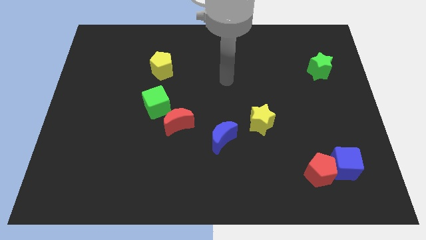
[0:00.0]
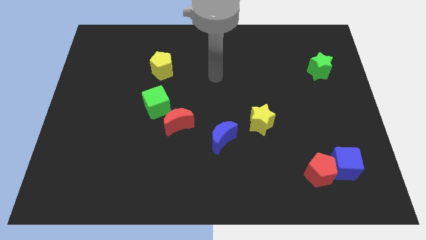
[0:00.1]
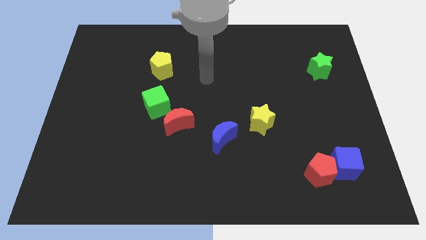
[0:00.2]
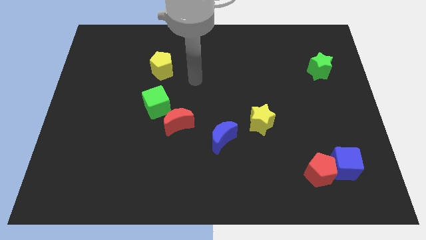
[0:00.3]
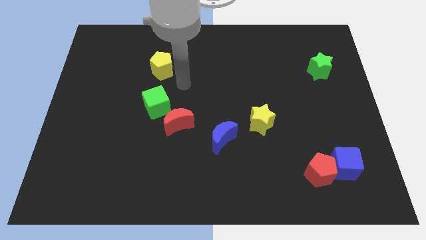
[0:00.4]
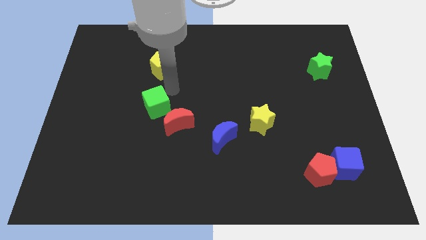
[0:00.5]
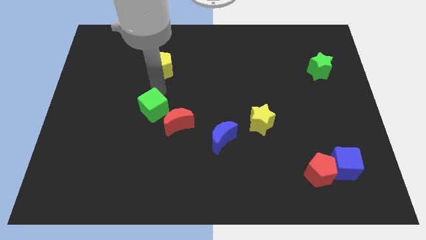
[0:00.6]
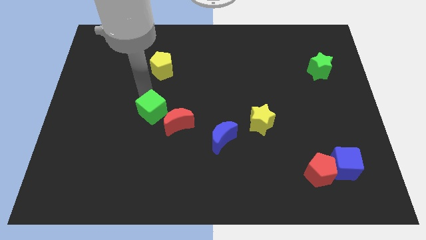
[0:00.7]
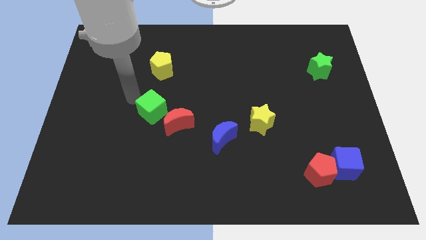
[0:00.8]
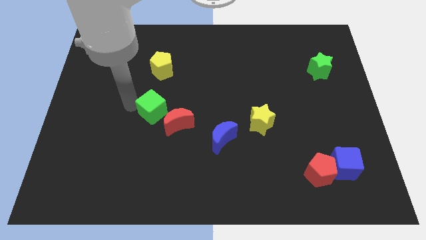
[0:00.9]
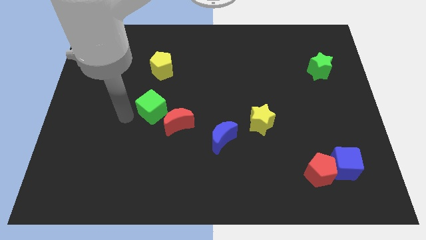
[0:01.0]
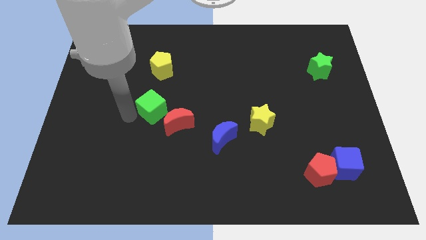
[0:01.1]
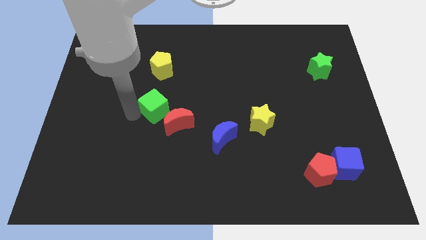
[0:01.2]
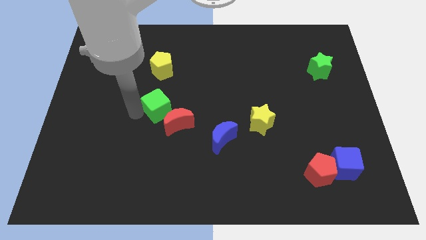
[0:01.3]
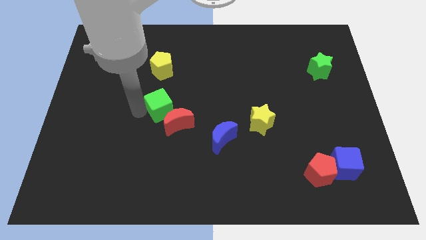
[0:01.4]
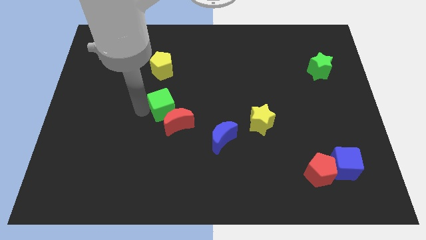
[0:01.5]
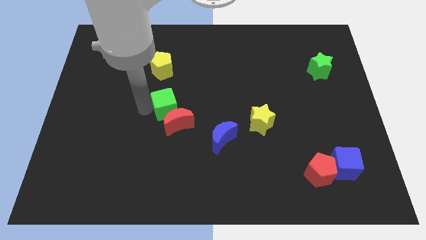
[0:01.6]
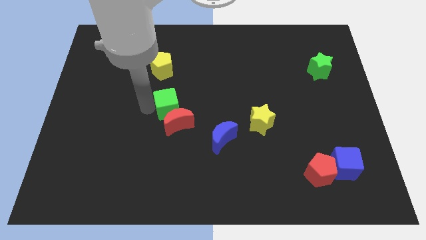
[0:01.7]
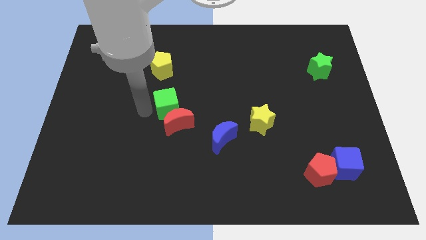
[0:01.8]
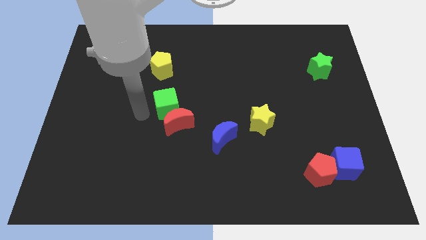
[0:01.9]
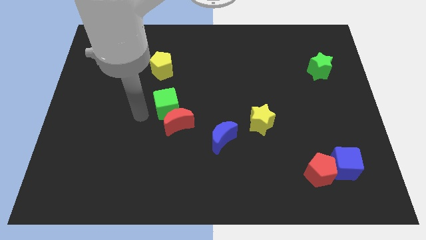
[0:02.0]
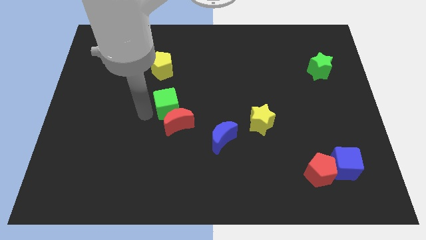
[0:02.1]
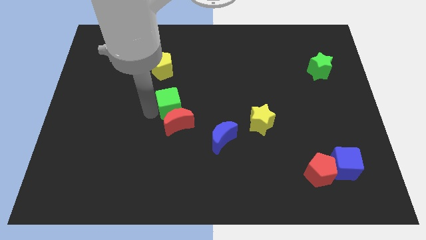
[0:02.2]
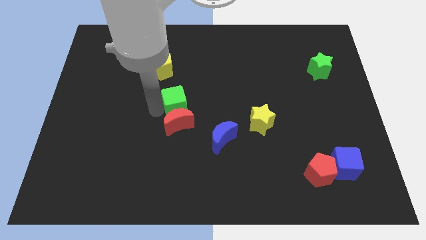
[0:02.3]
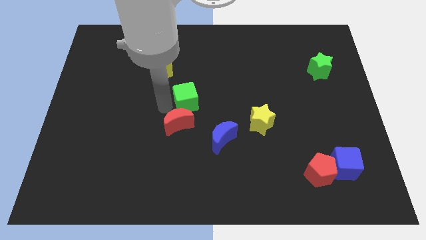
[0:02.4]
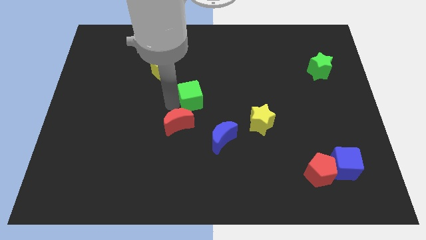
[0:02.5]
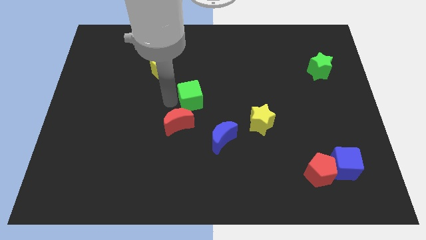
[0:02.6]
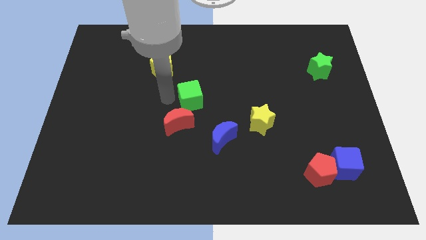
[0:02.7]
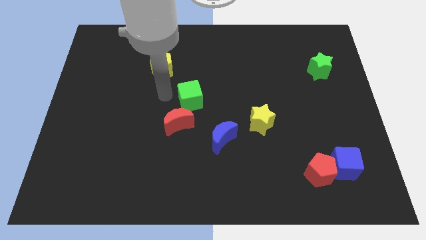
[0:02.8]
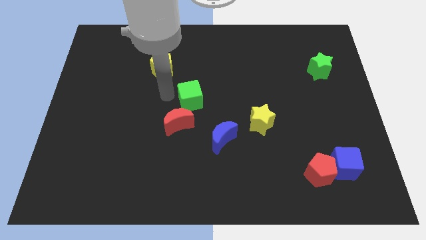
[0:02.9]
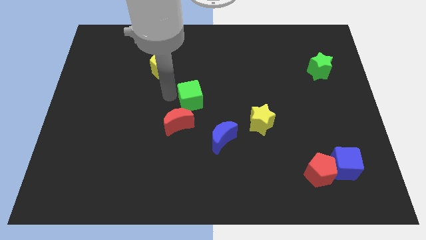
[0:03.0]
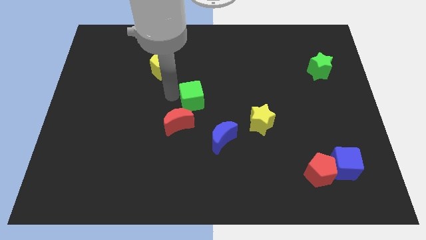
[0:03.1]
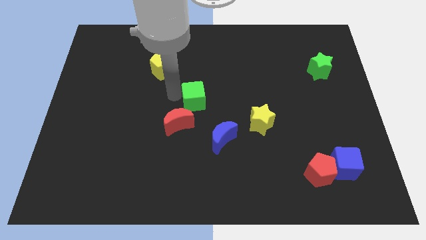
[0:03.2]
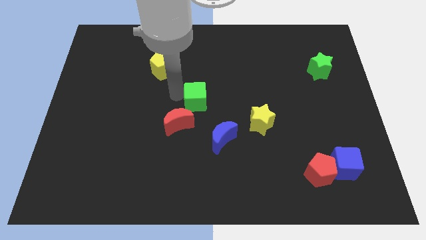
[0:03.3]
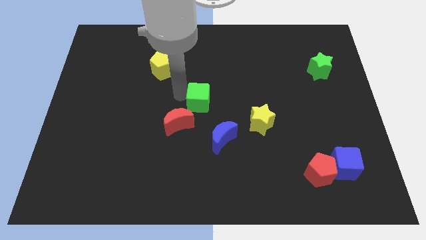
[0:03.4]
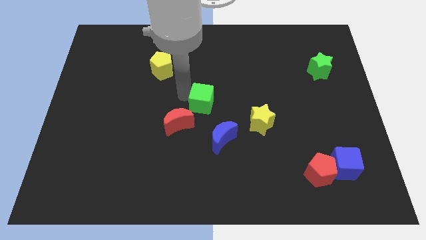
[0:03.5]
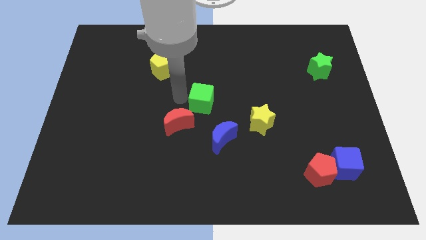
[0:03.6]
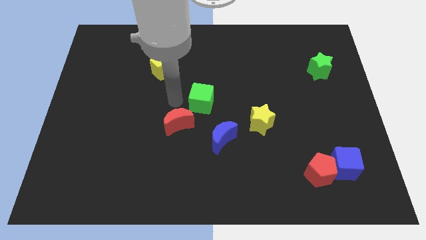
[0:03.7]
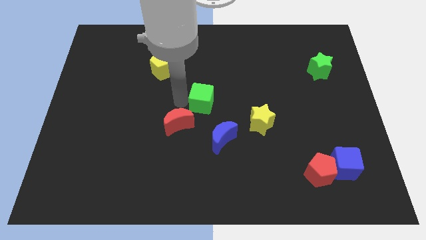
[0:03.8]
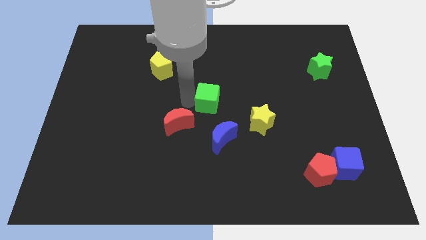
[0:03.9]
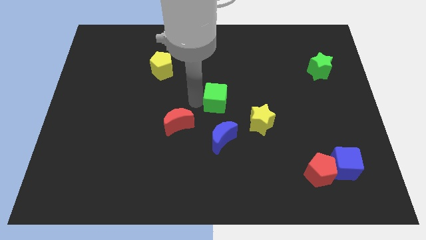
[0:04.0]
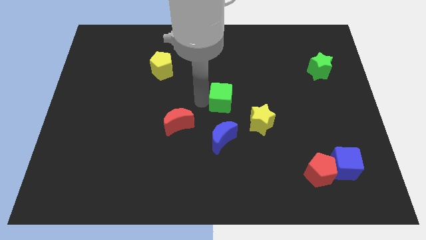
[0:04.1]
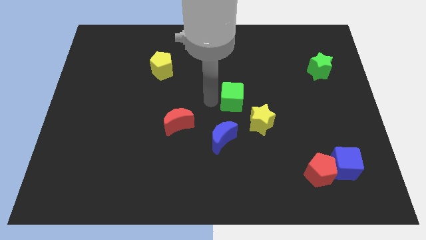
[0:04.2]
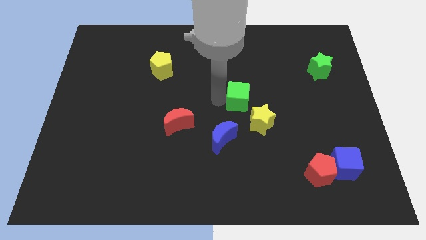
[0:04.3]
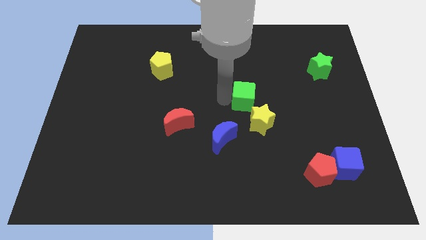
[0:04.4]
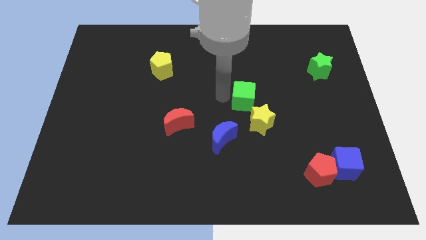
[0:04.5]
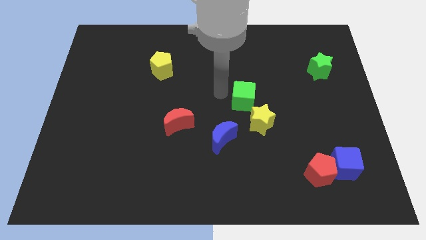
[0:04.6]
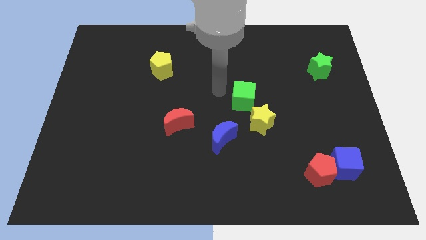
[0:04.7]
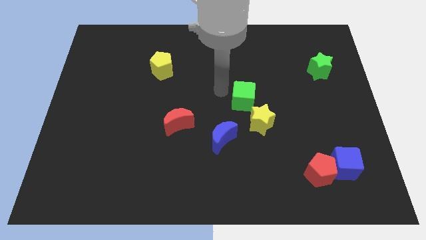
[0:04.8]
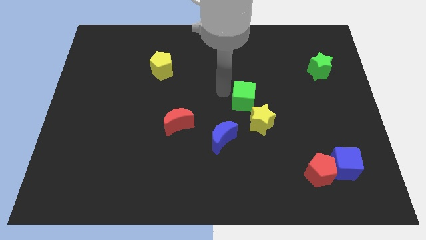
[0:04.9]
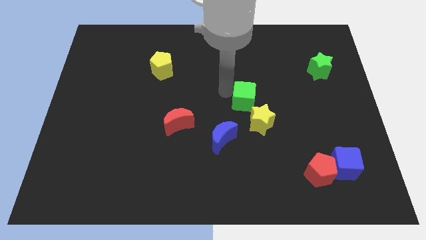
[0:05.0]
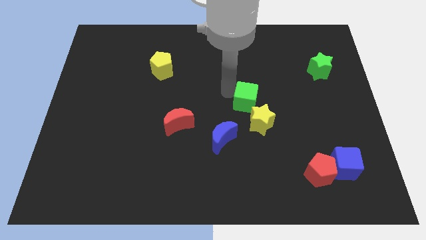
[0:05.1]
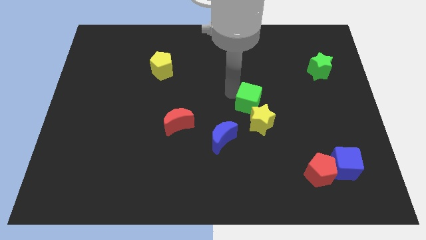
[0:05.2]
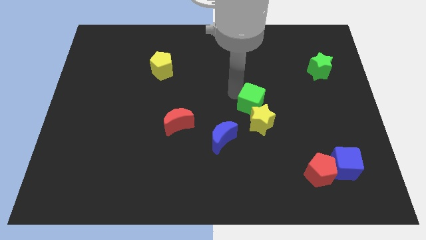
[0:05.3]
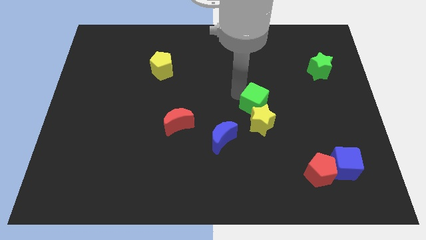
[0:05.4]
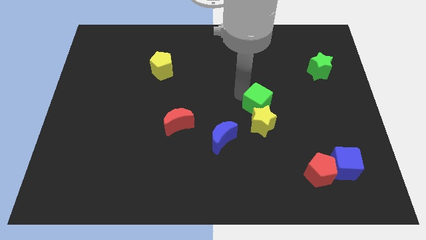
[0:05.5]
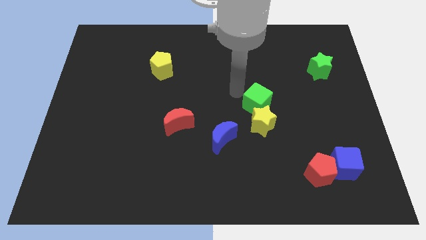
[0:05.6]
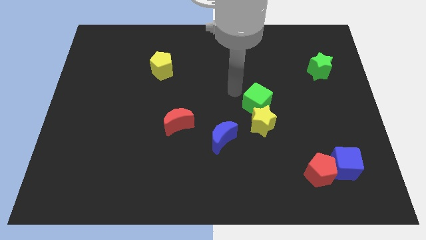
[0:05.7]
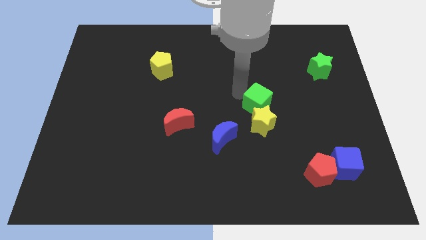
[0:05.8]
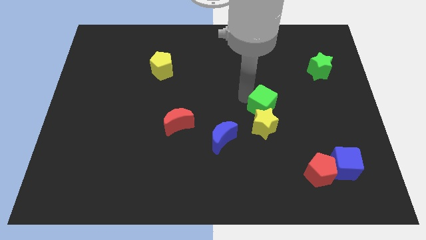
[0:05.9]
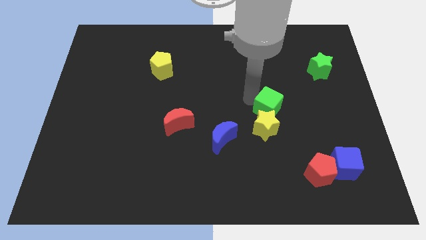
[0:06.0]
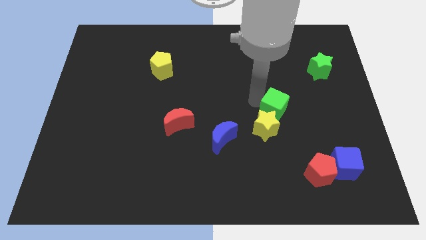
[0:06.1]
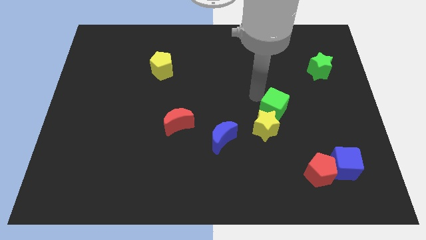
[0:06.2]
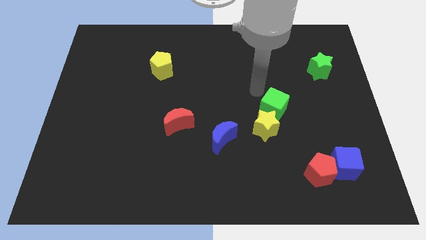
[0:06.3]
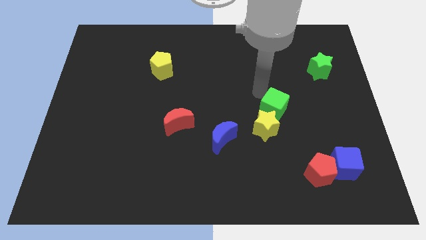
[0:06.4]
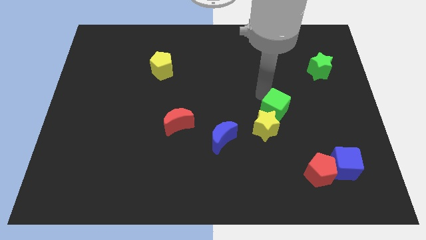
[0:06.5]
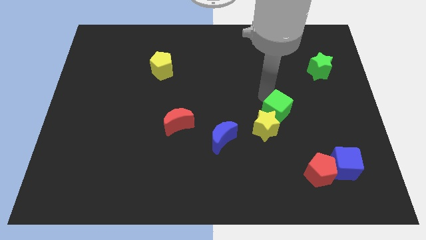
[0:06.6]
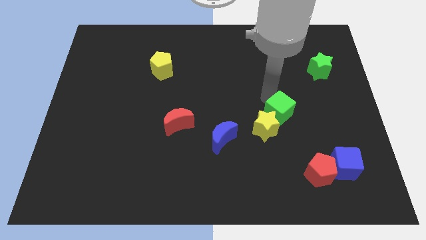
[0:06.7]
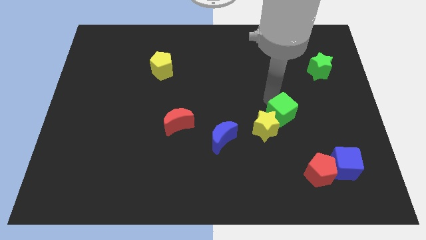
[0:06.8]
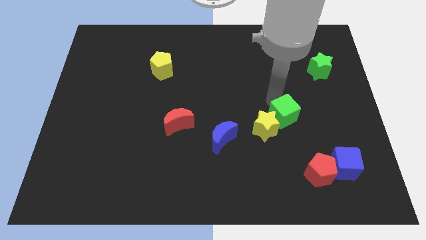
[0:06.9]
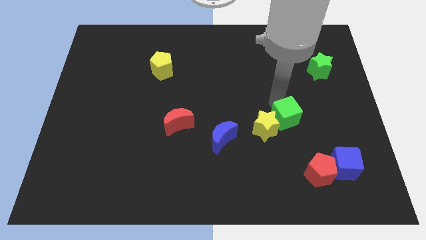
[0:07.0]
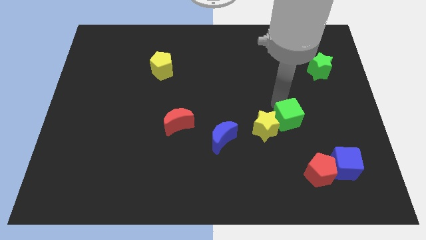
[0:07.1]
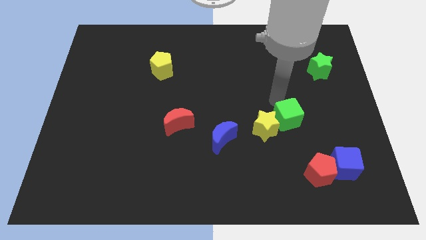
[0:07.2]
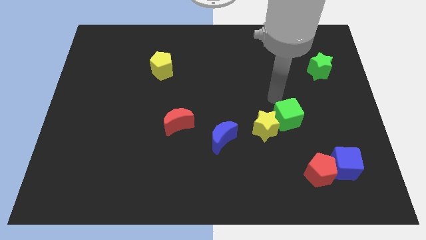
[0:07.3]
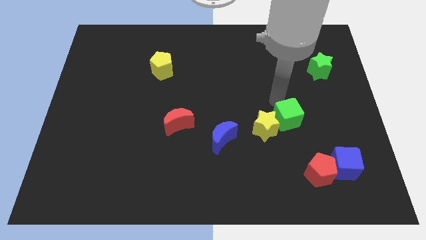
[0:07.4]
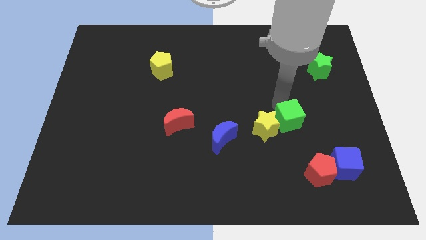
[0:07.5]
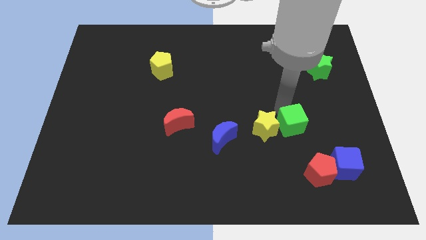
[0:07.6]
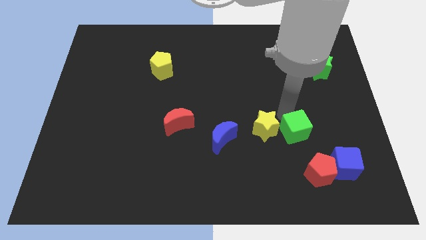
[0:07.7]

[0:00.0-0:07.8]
put the green cube to the top left of the blue cube
